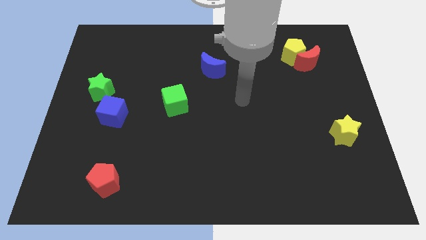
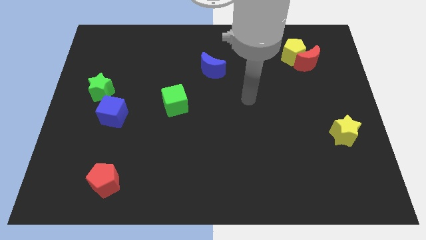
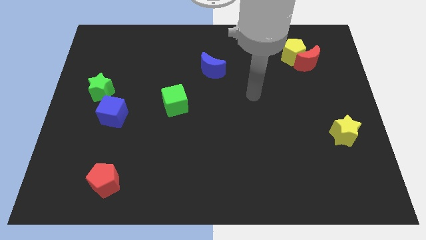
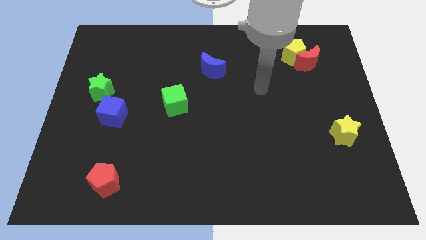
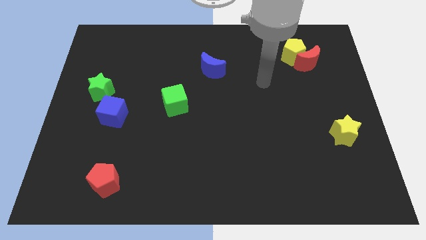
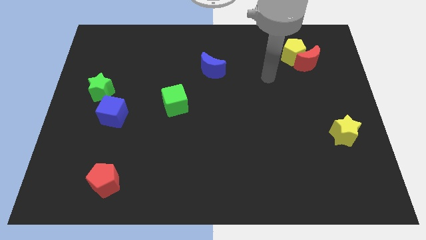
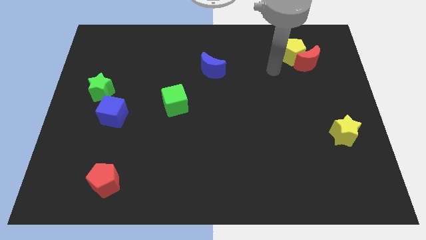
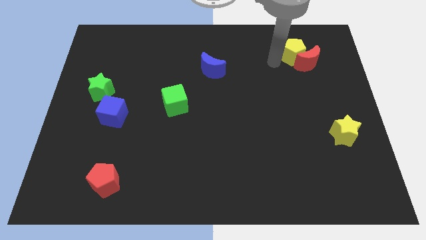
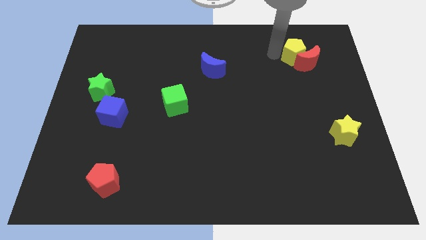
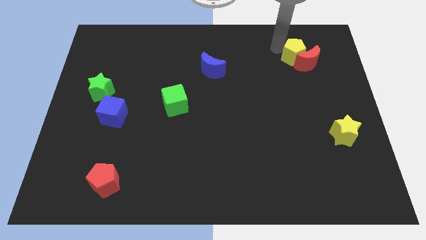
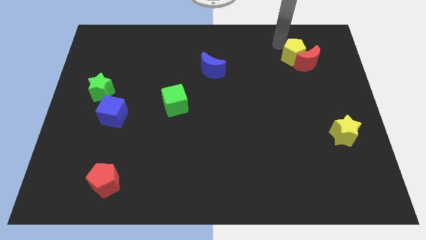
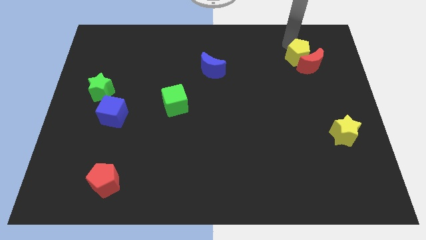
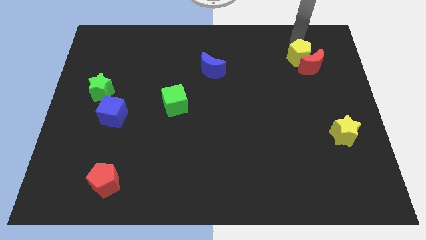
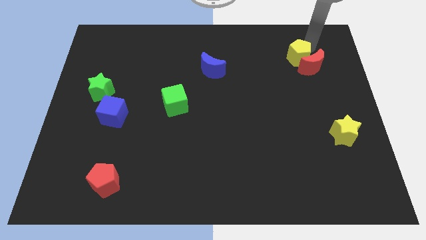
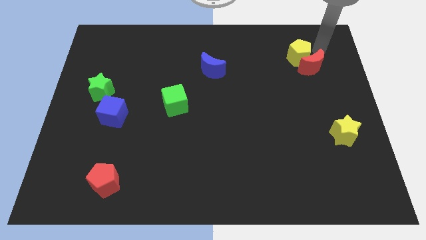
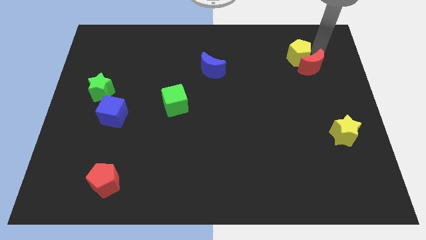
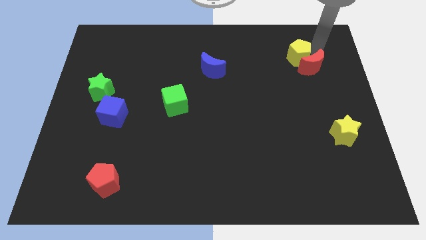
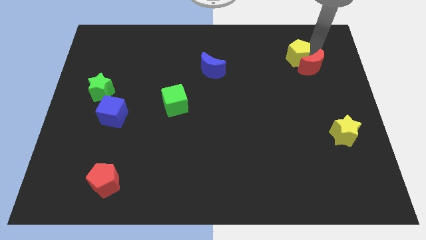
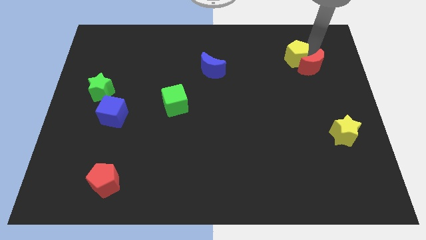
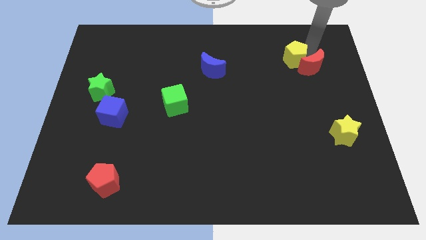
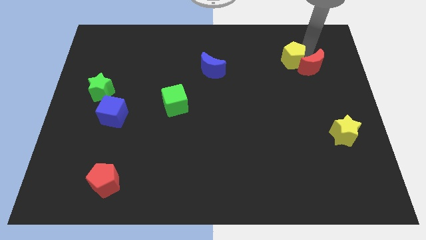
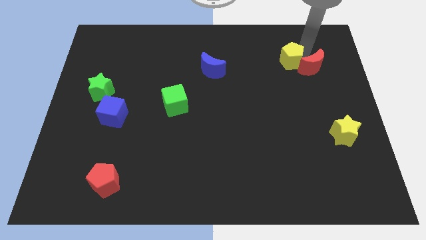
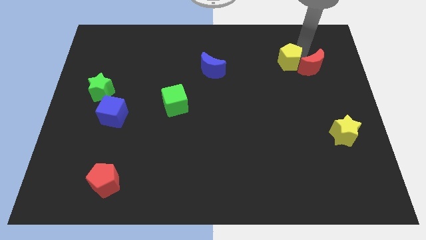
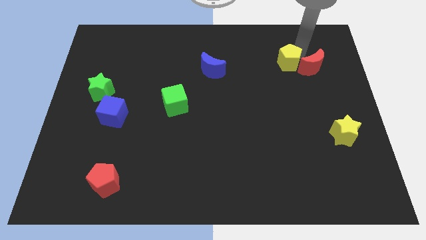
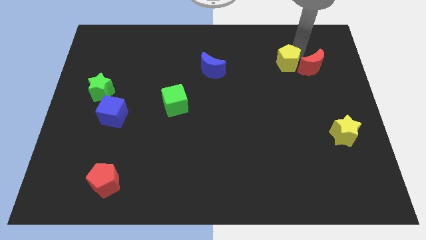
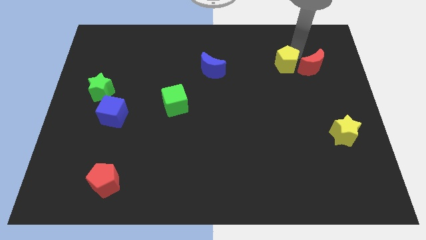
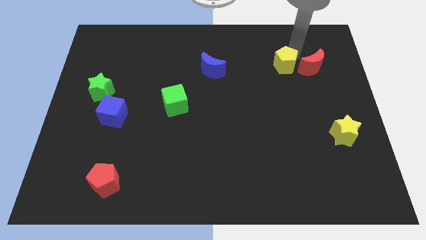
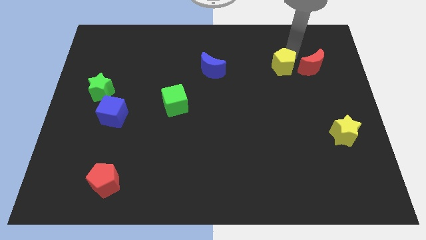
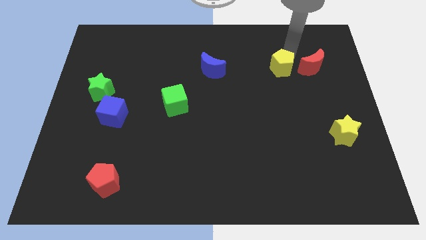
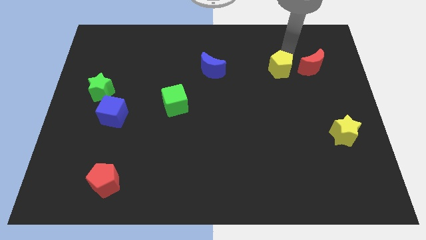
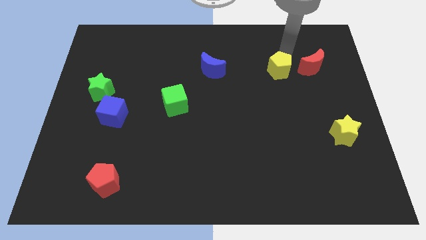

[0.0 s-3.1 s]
slide the yellow pentagon slightly down and left diagonally

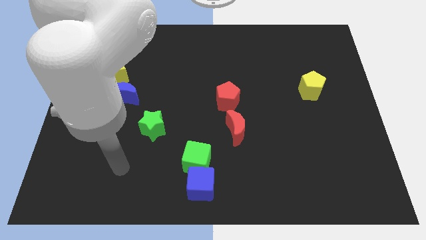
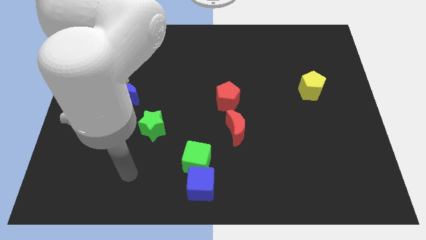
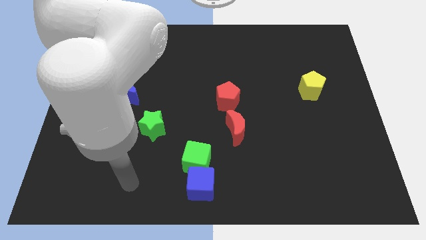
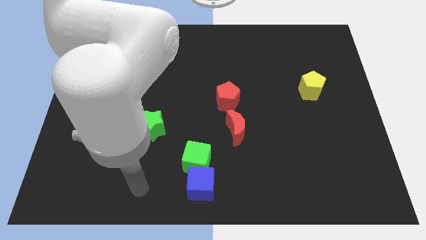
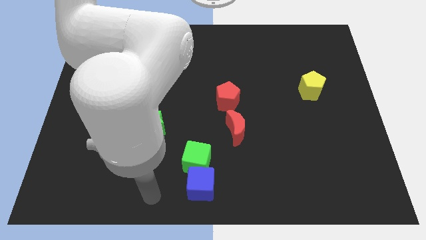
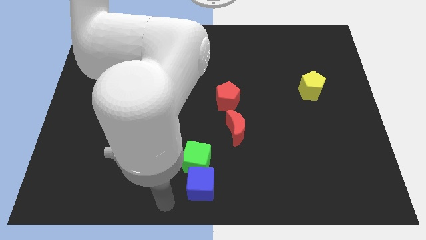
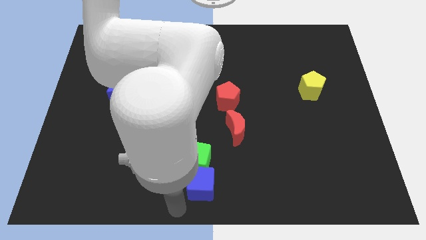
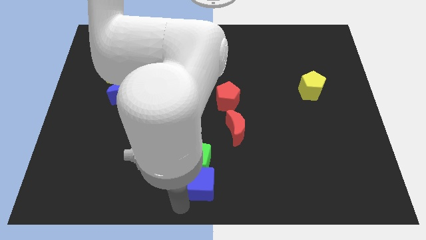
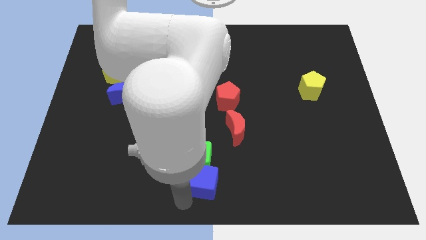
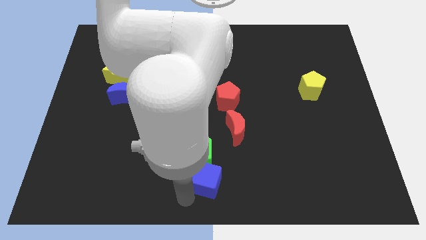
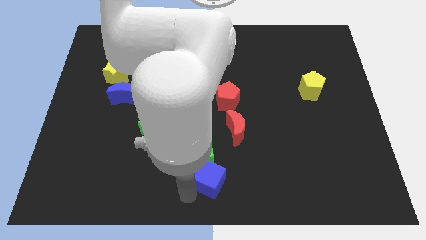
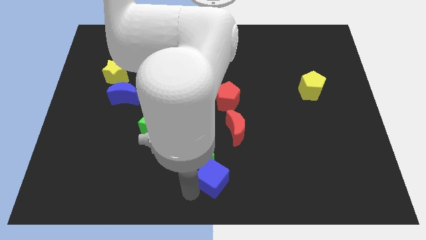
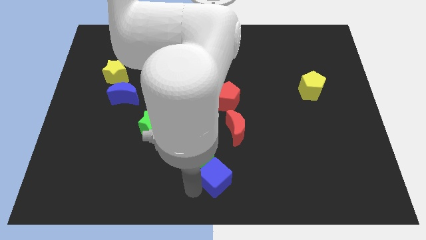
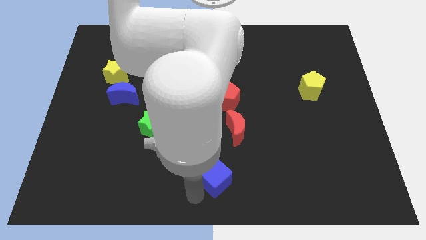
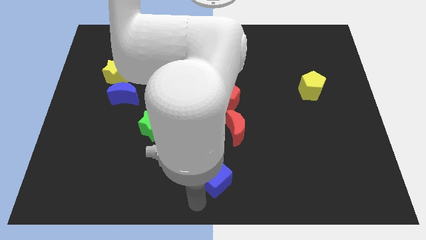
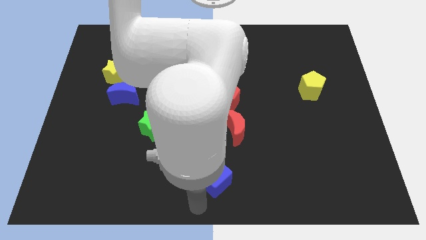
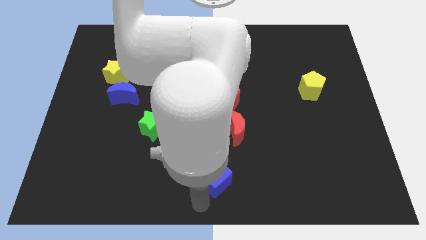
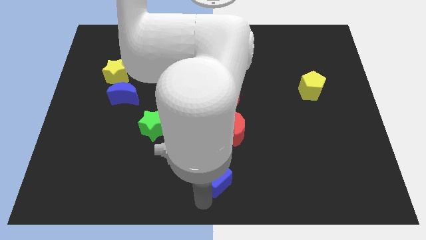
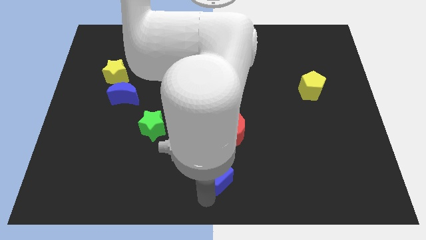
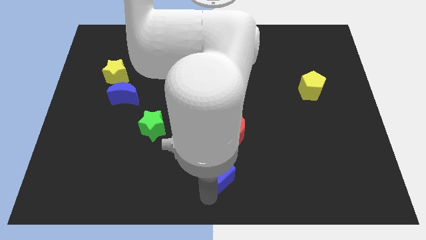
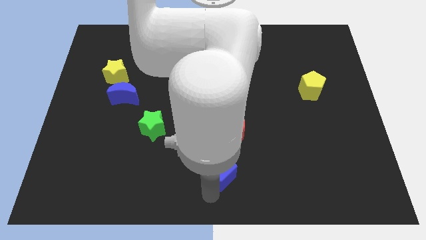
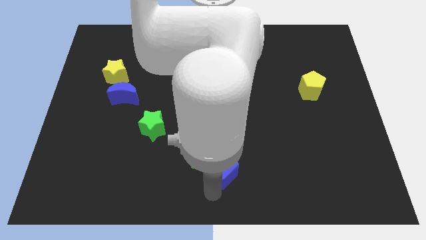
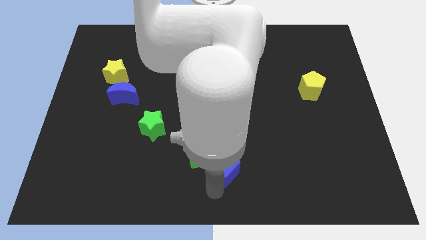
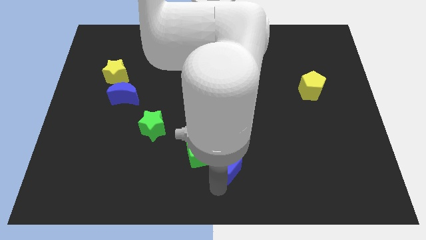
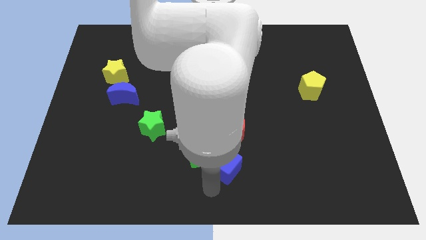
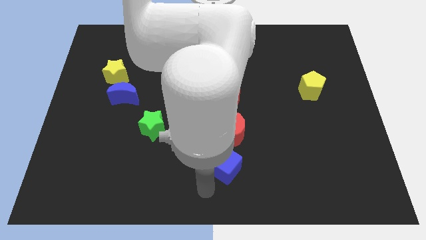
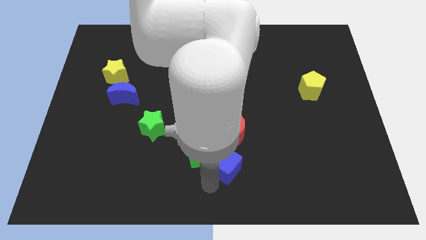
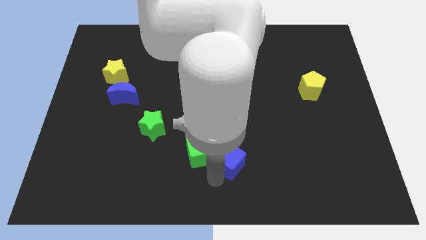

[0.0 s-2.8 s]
slide the blue cube diagonally upwards and to the right a little bit

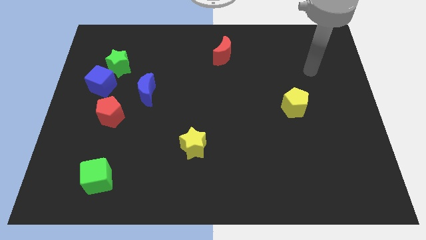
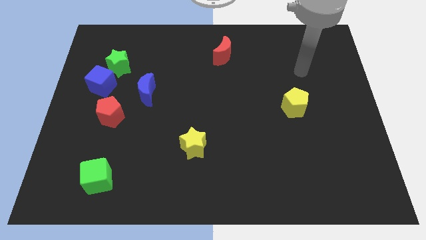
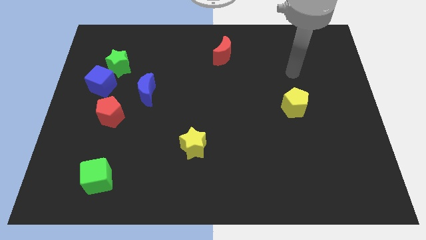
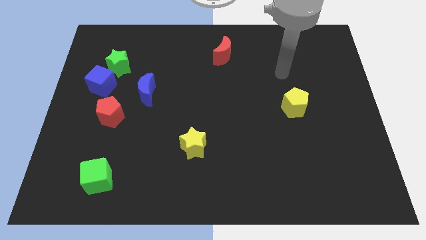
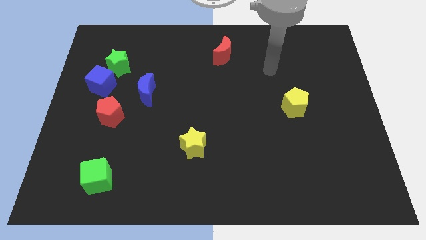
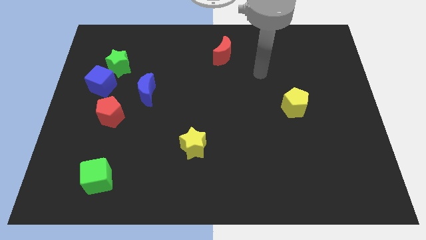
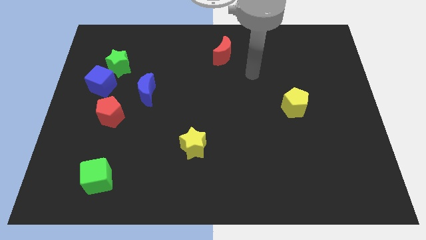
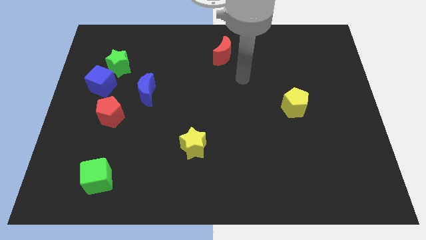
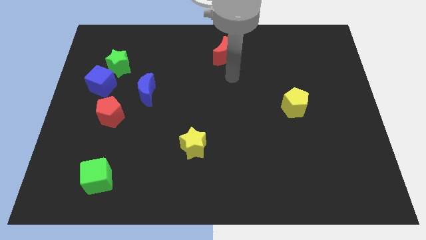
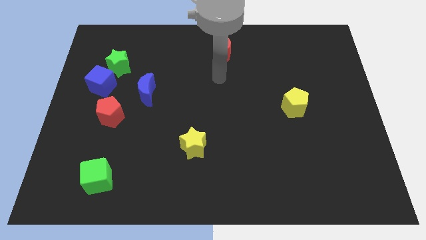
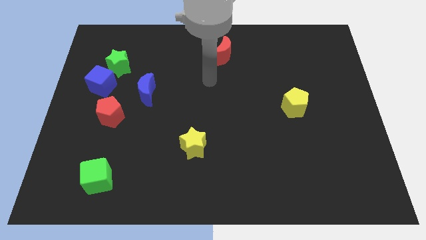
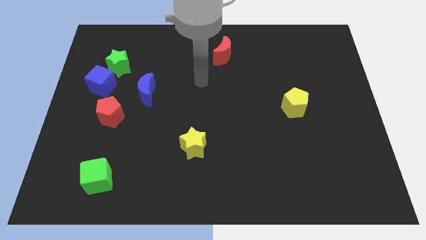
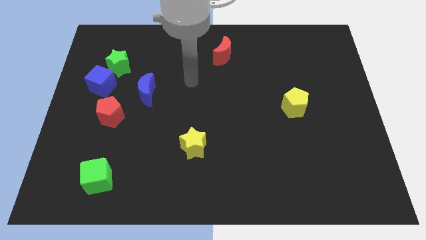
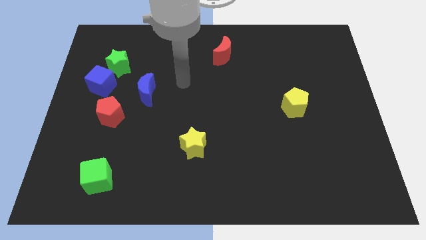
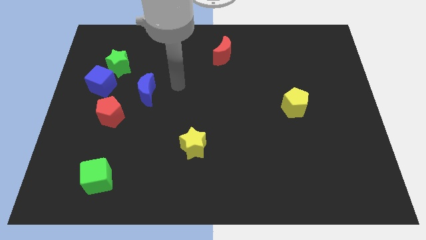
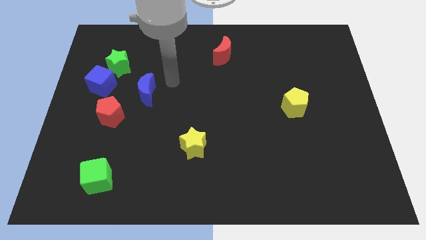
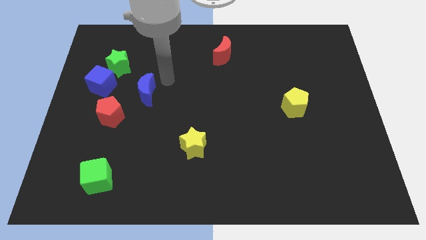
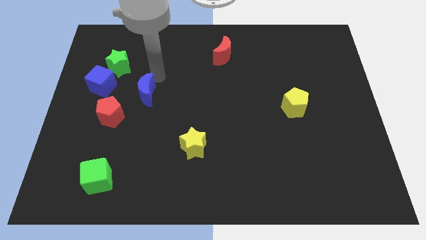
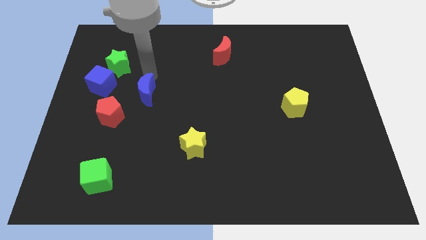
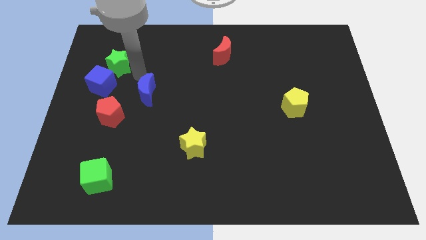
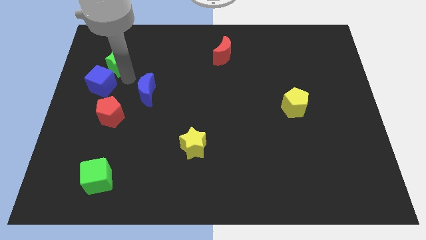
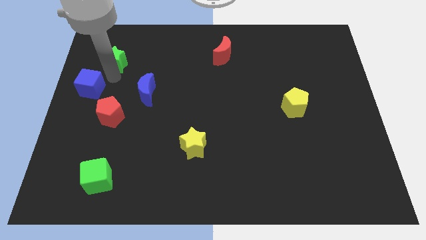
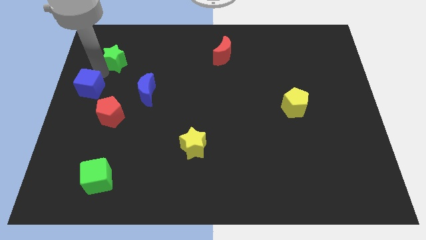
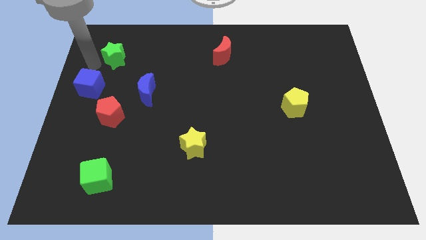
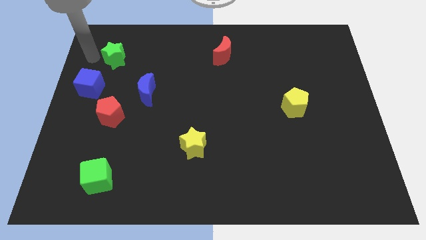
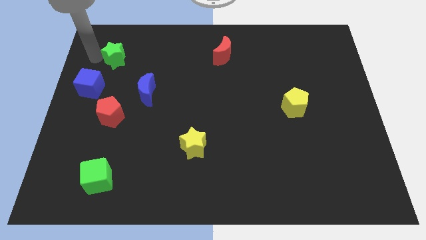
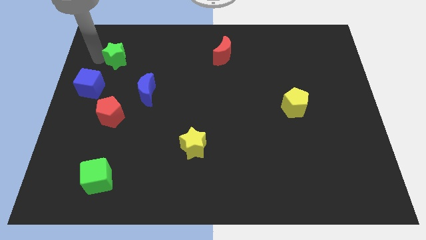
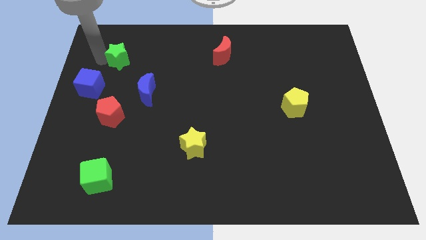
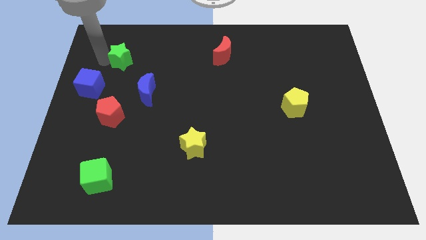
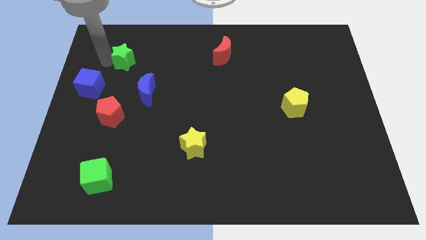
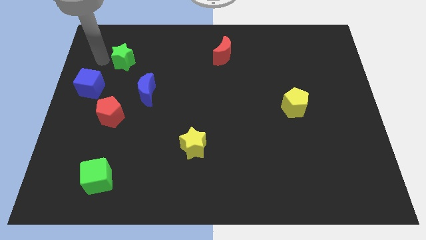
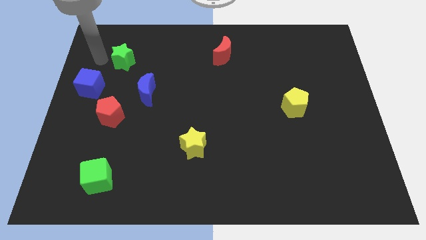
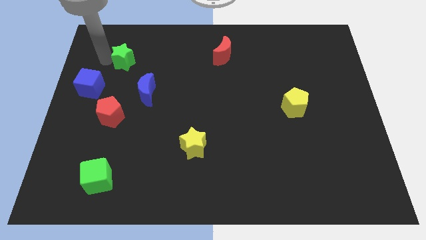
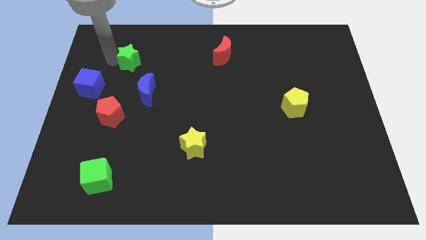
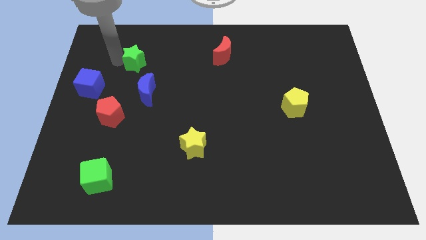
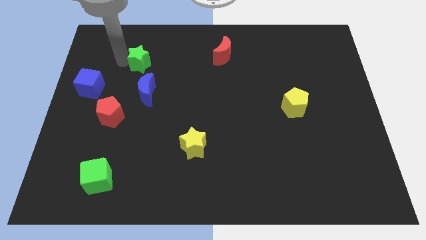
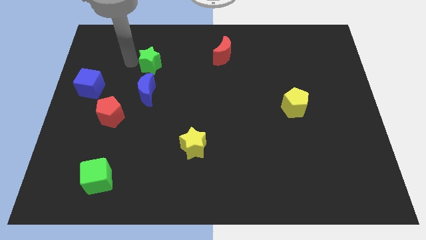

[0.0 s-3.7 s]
slightly push the green star right
